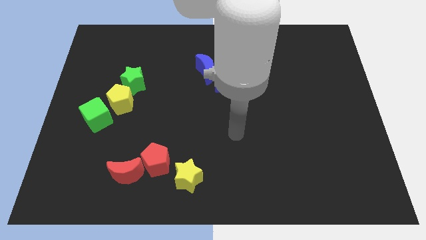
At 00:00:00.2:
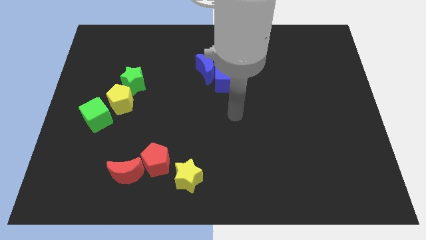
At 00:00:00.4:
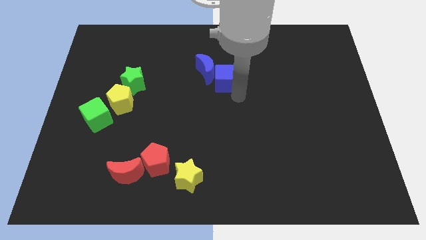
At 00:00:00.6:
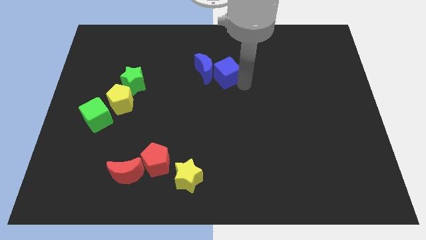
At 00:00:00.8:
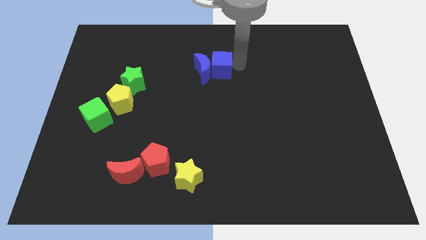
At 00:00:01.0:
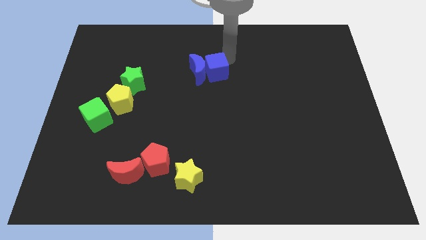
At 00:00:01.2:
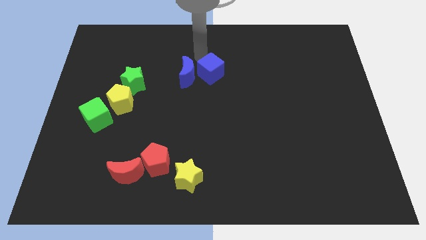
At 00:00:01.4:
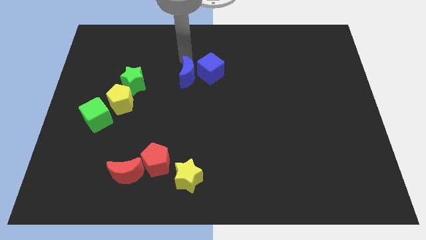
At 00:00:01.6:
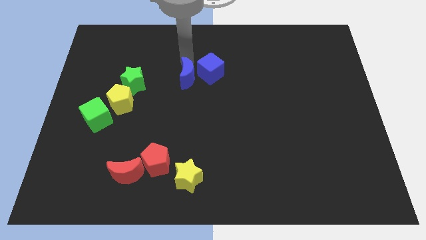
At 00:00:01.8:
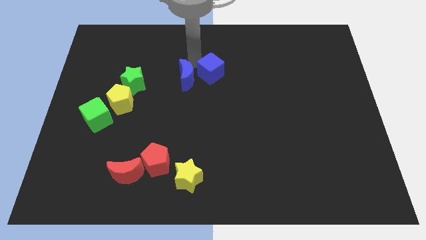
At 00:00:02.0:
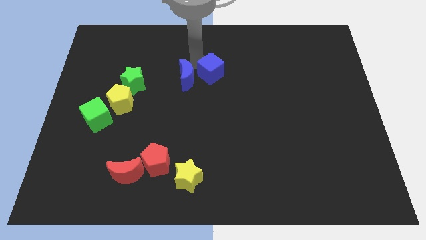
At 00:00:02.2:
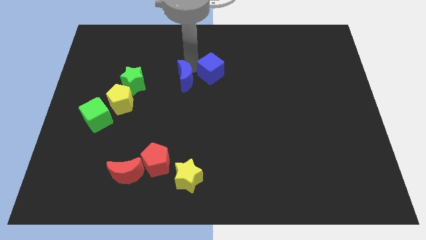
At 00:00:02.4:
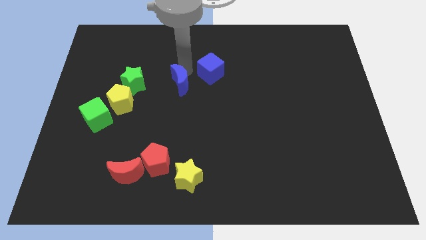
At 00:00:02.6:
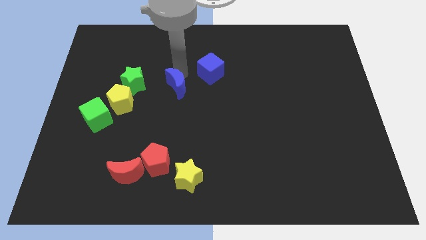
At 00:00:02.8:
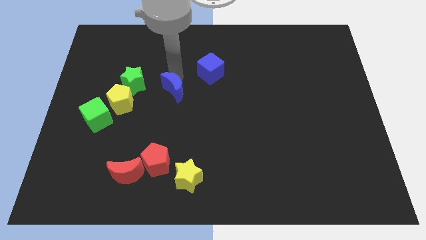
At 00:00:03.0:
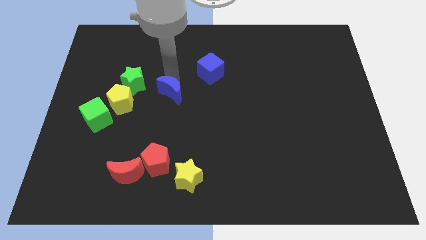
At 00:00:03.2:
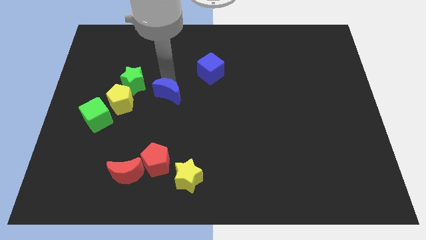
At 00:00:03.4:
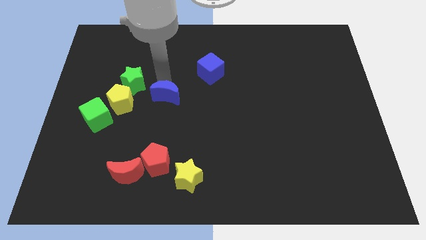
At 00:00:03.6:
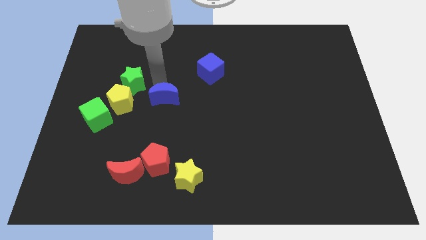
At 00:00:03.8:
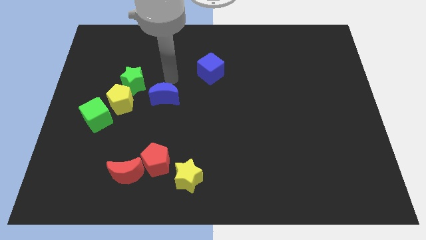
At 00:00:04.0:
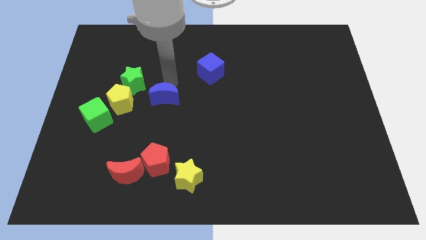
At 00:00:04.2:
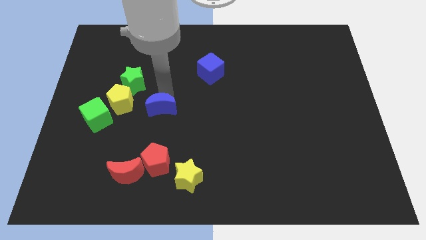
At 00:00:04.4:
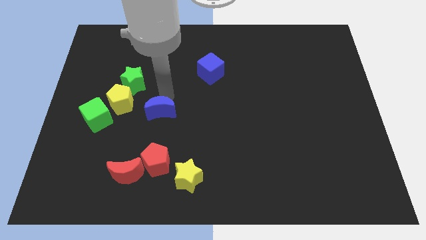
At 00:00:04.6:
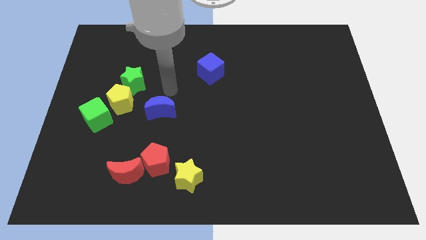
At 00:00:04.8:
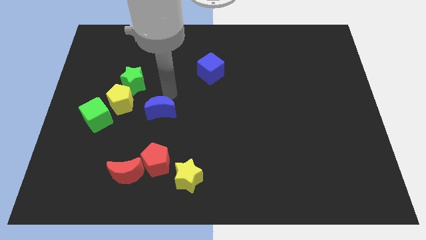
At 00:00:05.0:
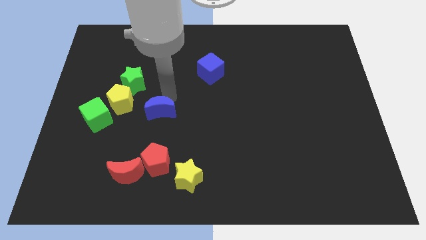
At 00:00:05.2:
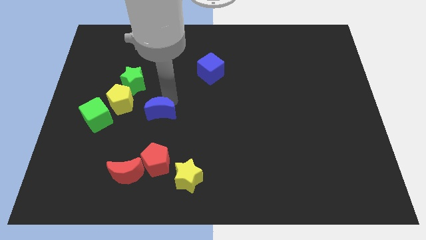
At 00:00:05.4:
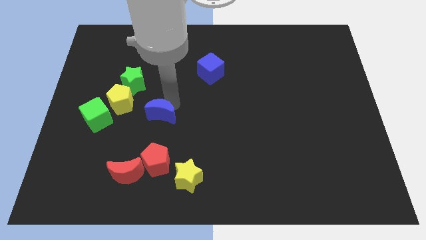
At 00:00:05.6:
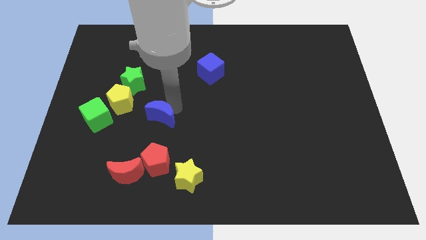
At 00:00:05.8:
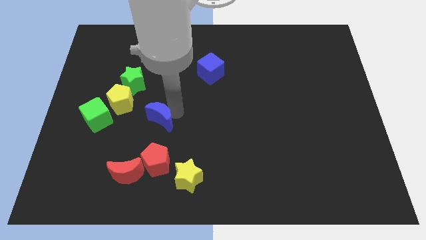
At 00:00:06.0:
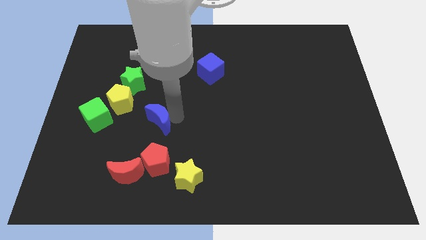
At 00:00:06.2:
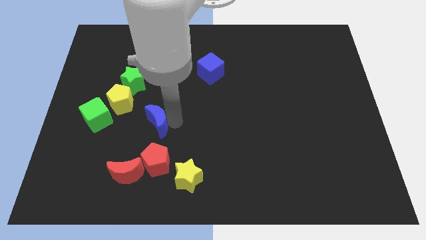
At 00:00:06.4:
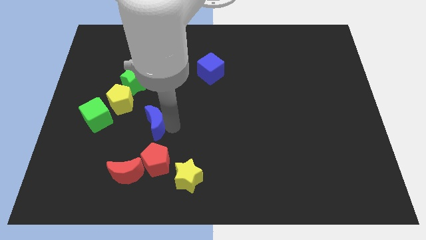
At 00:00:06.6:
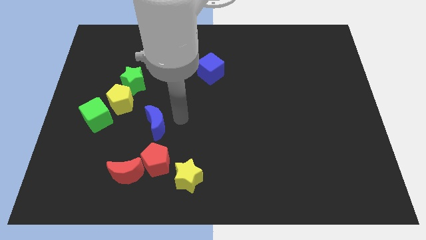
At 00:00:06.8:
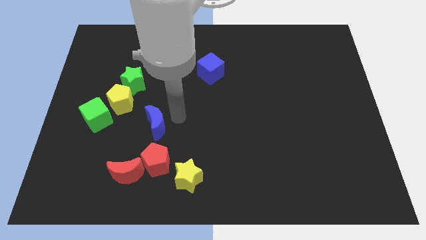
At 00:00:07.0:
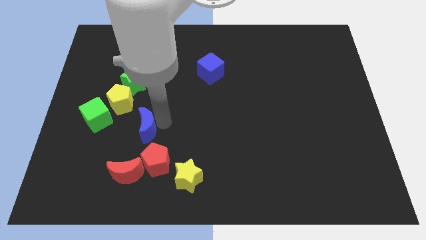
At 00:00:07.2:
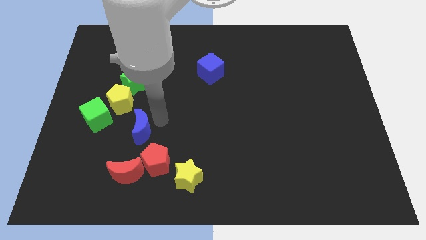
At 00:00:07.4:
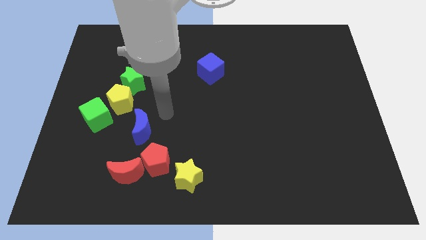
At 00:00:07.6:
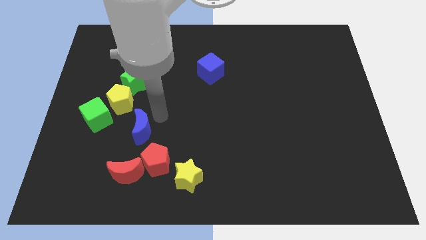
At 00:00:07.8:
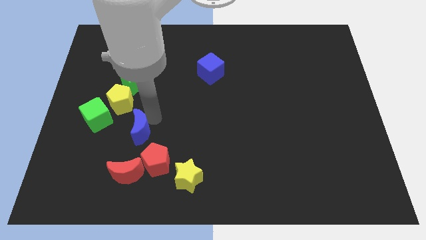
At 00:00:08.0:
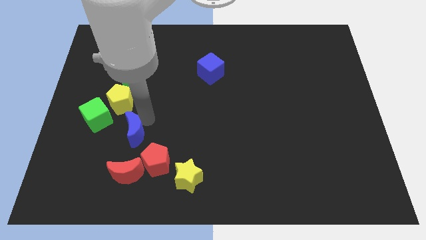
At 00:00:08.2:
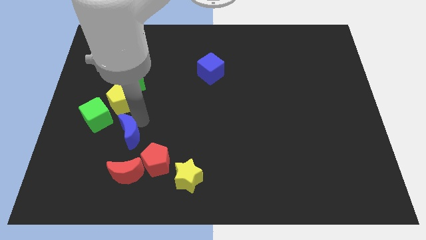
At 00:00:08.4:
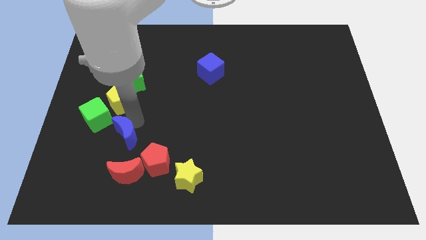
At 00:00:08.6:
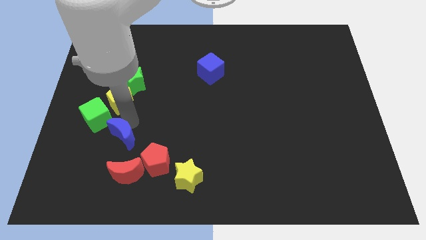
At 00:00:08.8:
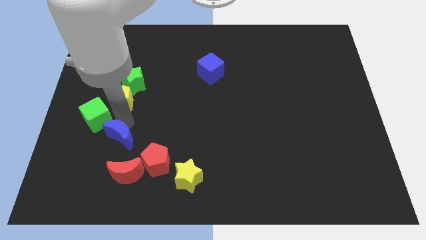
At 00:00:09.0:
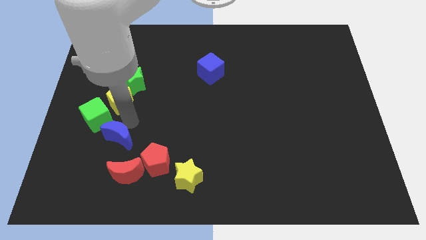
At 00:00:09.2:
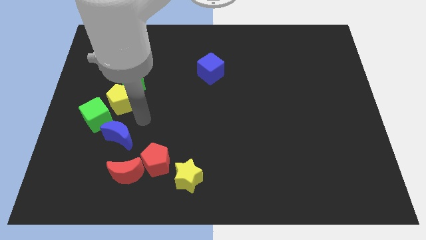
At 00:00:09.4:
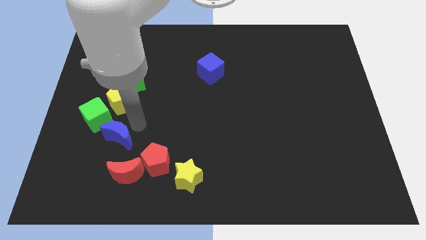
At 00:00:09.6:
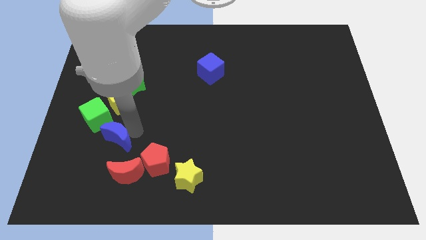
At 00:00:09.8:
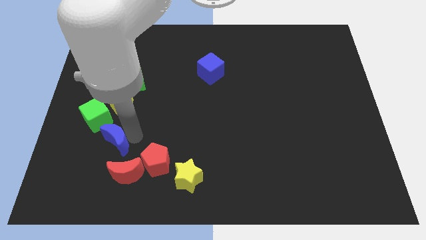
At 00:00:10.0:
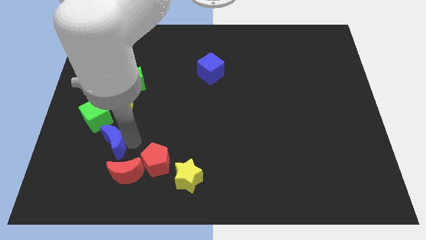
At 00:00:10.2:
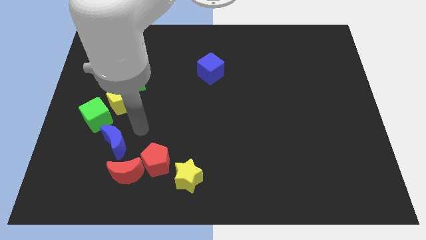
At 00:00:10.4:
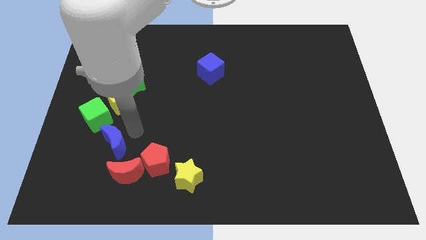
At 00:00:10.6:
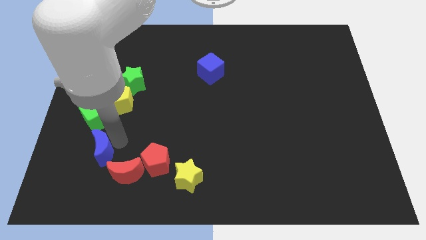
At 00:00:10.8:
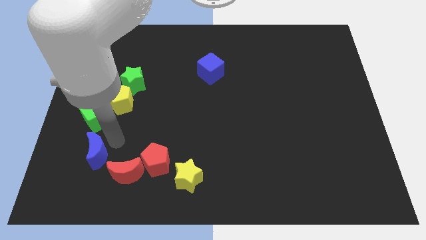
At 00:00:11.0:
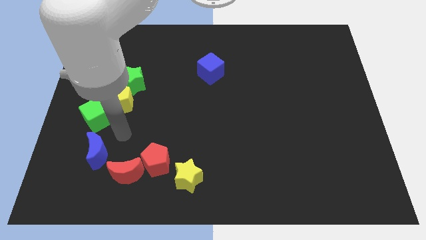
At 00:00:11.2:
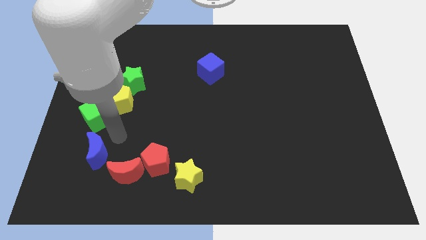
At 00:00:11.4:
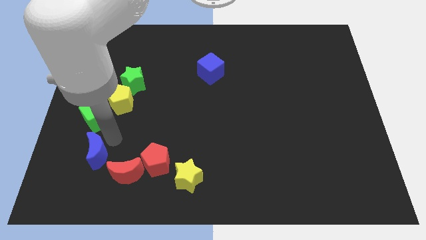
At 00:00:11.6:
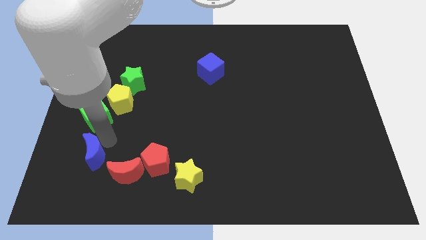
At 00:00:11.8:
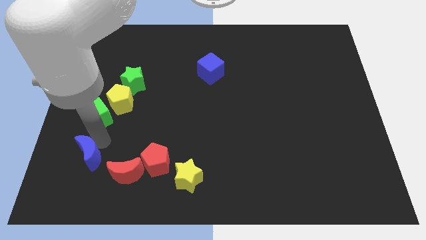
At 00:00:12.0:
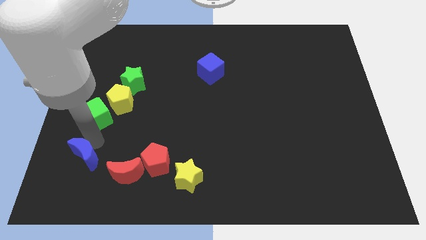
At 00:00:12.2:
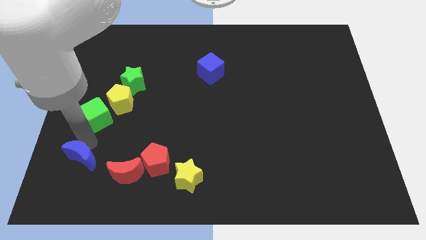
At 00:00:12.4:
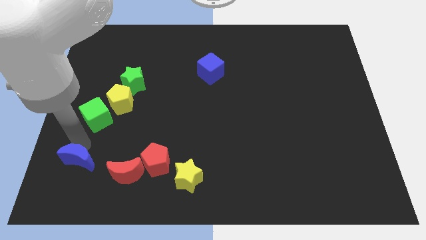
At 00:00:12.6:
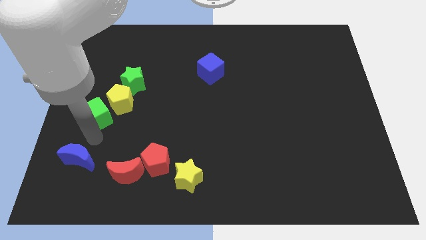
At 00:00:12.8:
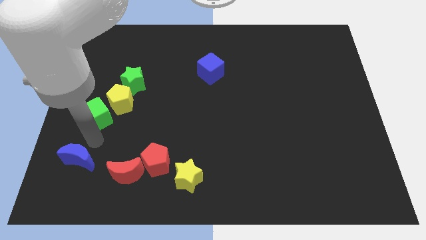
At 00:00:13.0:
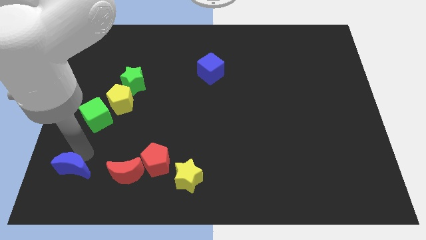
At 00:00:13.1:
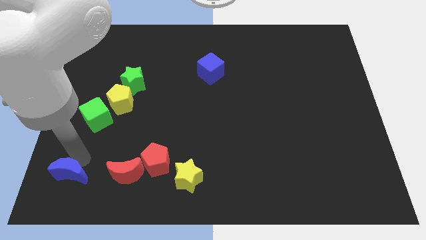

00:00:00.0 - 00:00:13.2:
move the blue moon to the bottom left of the board
